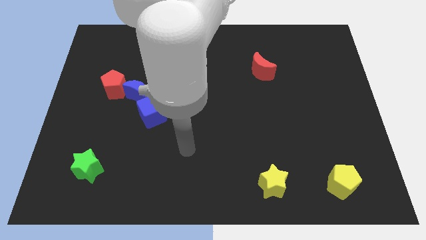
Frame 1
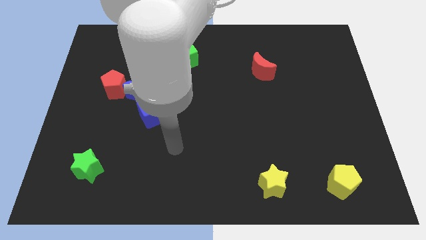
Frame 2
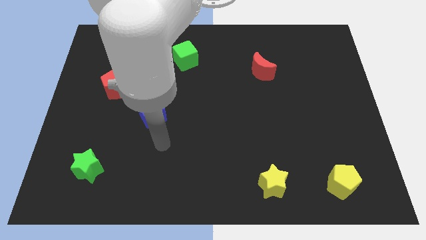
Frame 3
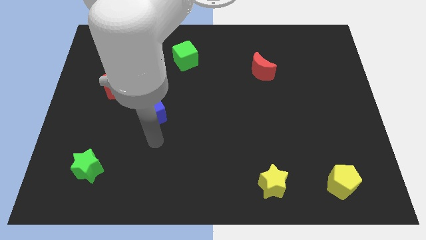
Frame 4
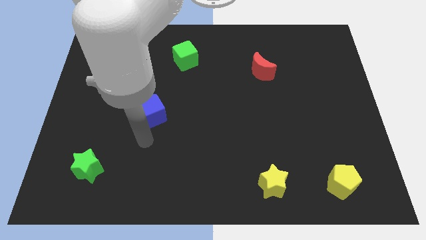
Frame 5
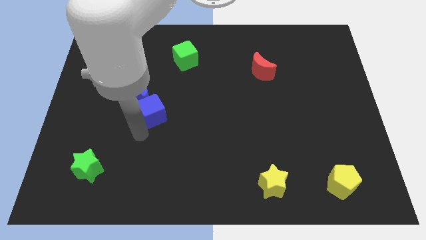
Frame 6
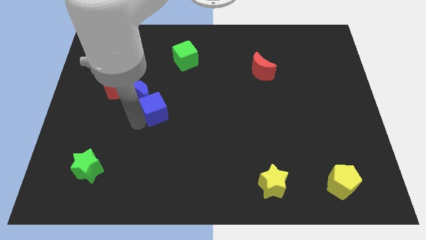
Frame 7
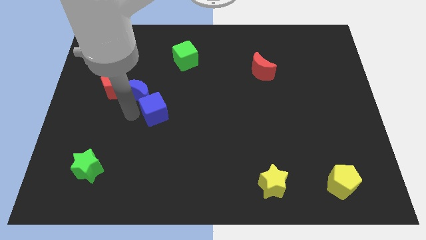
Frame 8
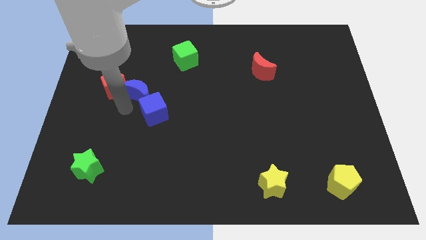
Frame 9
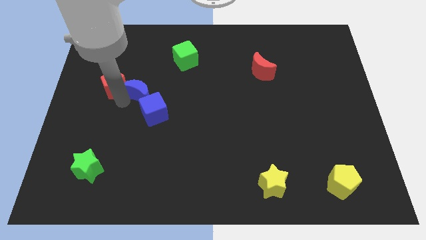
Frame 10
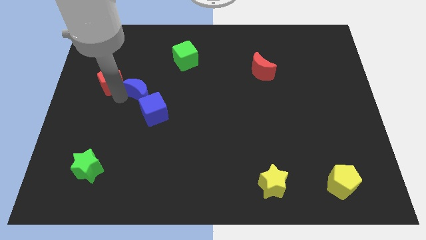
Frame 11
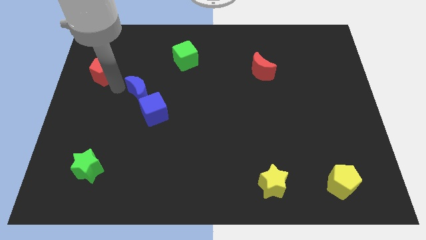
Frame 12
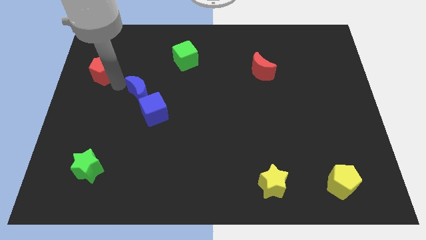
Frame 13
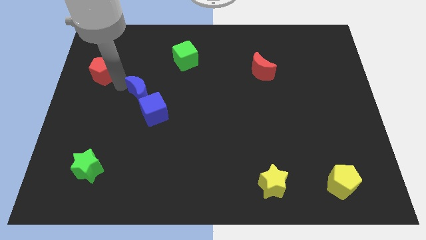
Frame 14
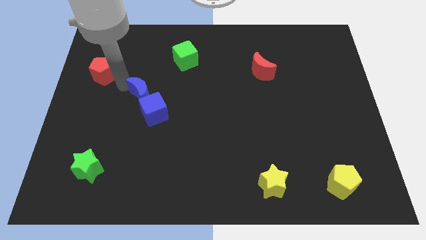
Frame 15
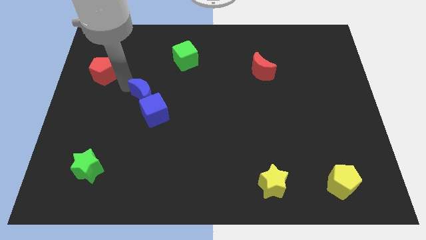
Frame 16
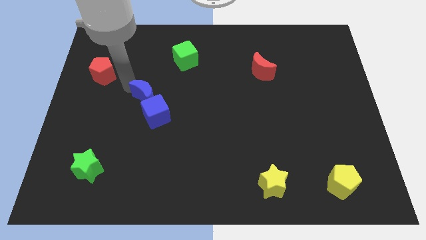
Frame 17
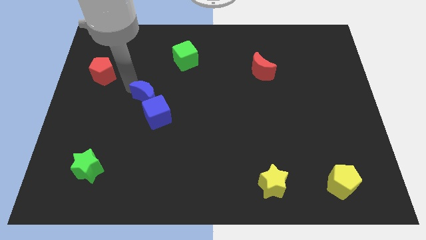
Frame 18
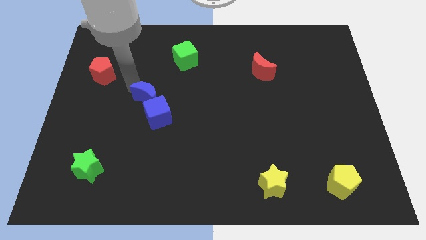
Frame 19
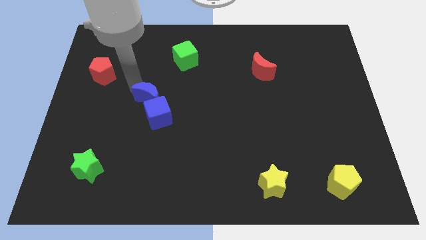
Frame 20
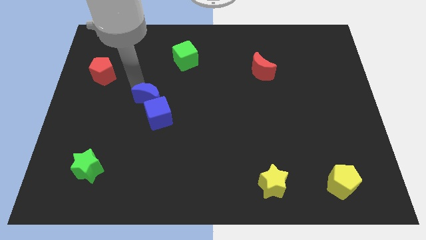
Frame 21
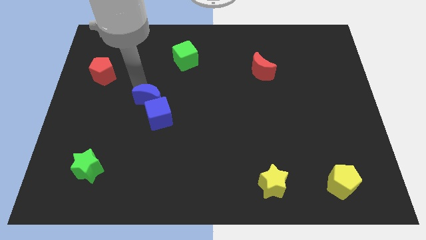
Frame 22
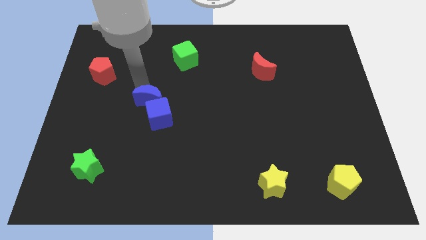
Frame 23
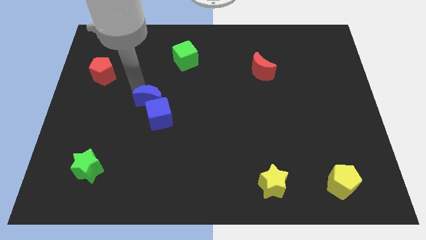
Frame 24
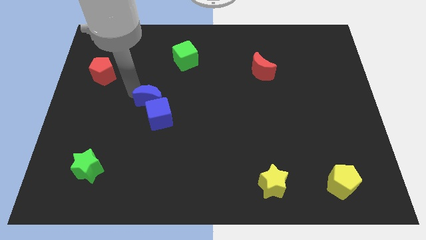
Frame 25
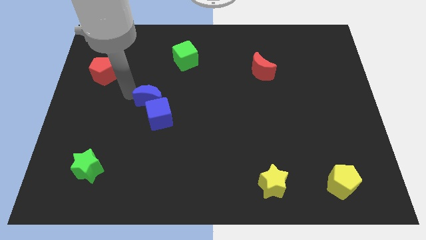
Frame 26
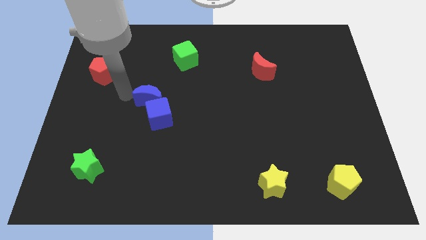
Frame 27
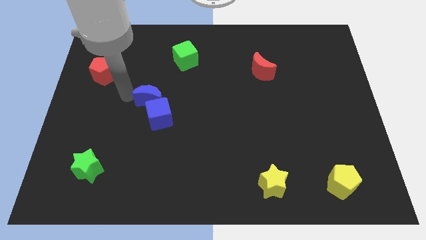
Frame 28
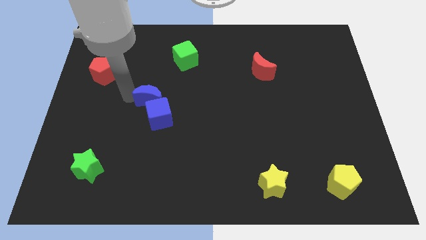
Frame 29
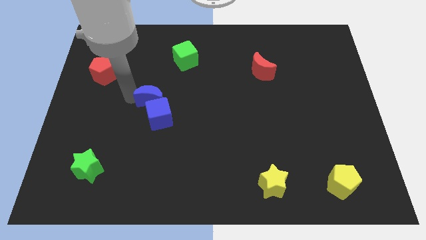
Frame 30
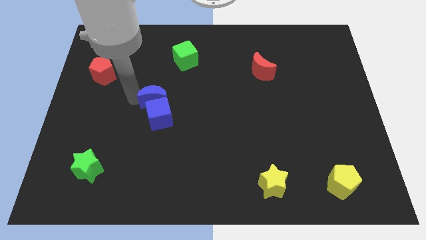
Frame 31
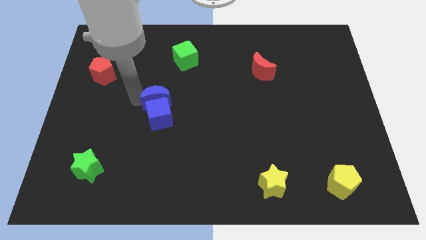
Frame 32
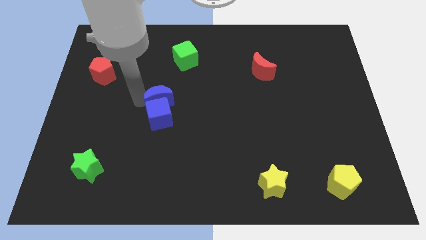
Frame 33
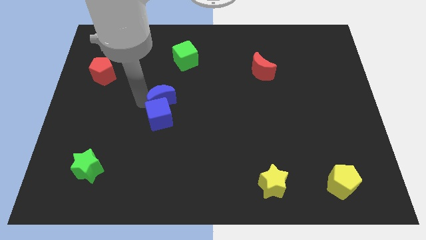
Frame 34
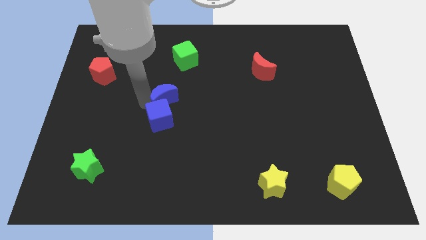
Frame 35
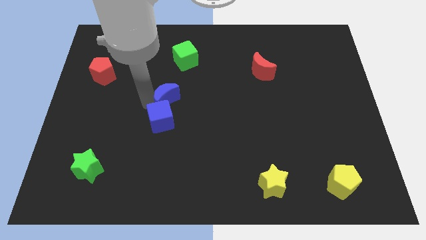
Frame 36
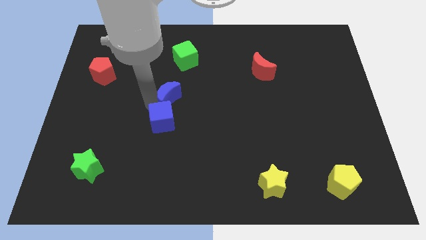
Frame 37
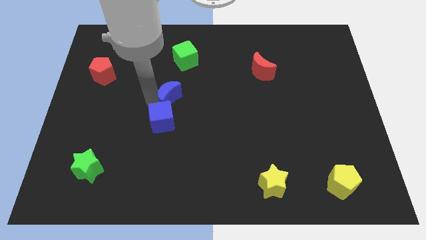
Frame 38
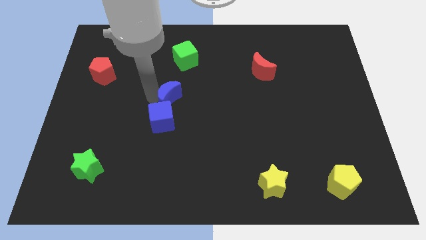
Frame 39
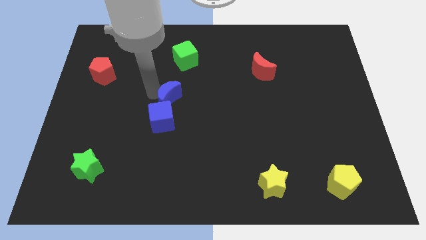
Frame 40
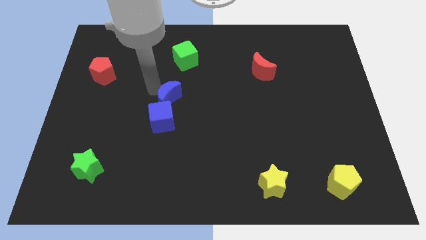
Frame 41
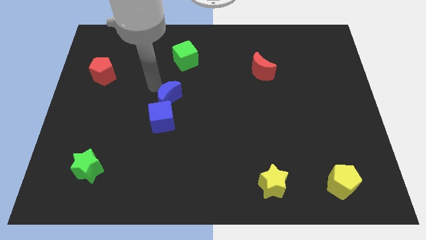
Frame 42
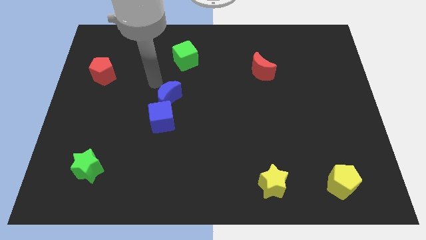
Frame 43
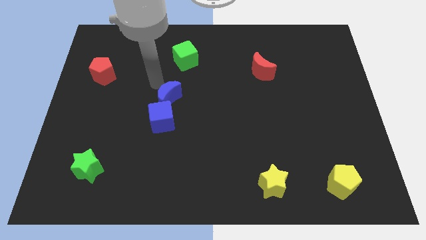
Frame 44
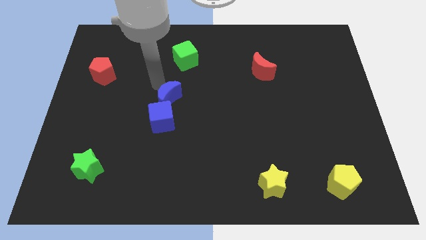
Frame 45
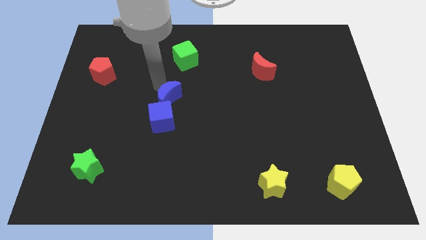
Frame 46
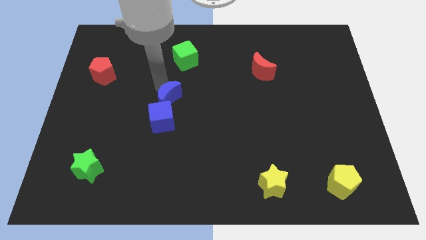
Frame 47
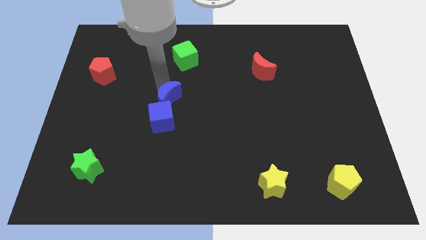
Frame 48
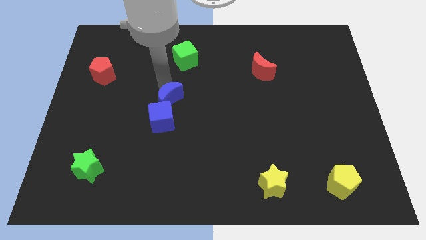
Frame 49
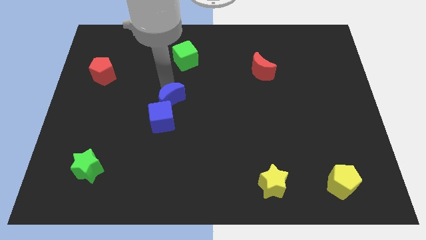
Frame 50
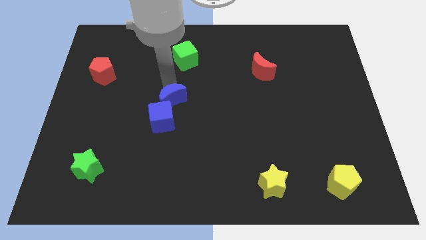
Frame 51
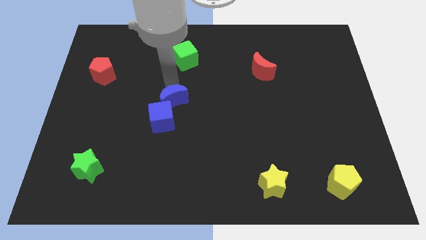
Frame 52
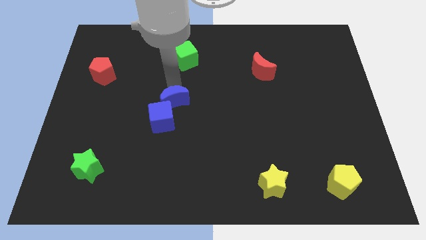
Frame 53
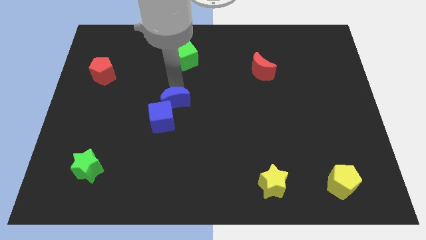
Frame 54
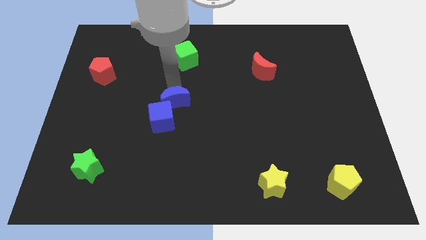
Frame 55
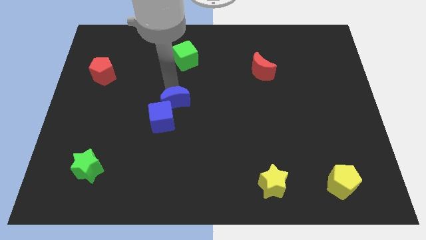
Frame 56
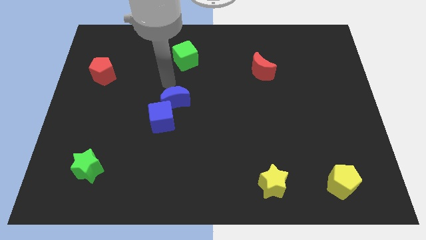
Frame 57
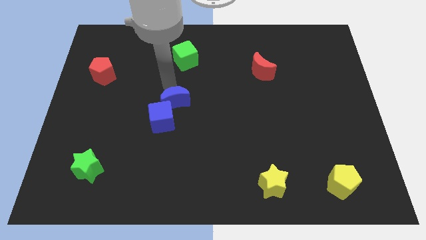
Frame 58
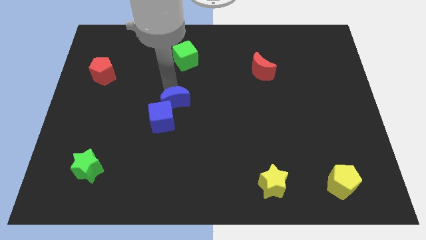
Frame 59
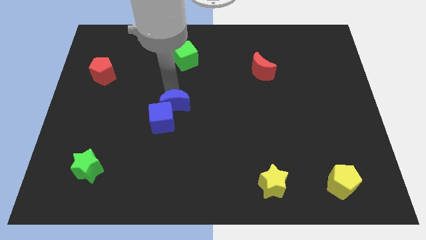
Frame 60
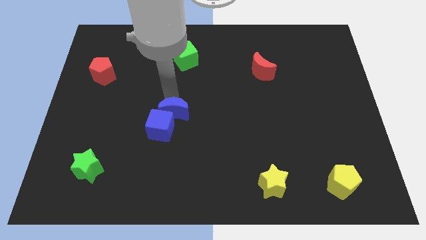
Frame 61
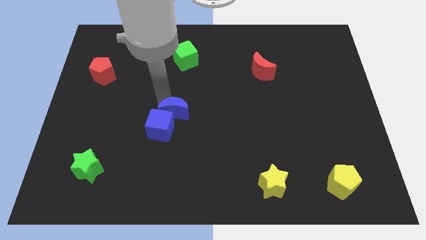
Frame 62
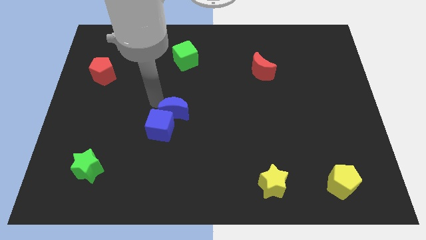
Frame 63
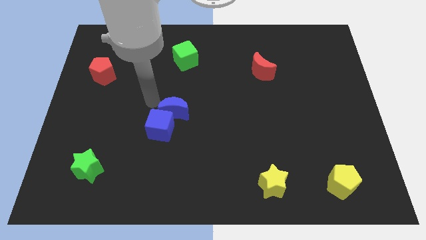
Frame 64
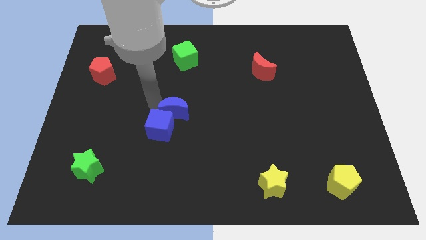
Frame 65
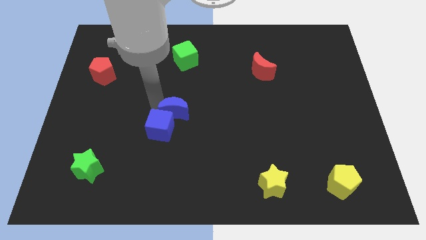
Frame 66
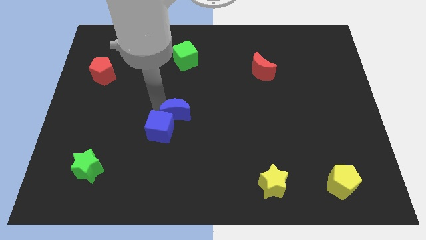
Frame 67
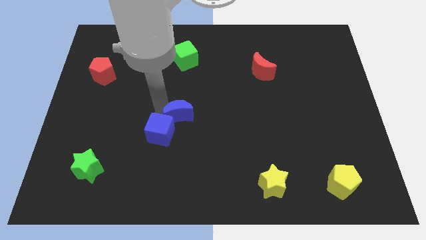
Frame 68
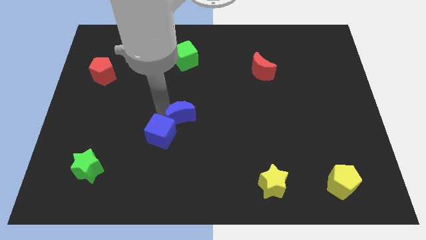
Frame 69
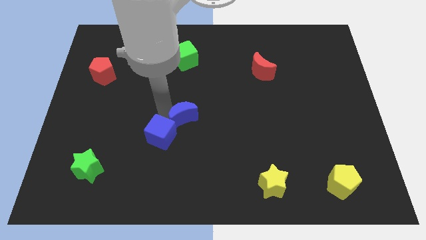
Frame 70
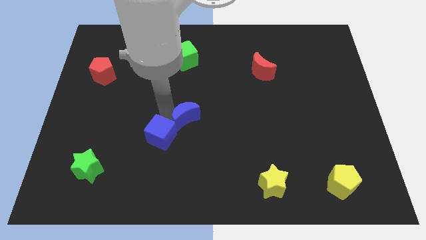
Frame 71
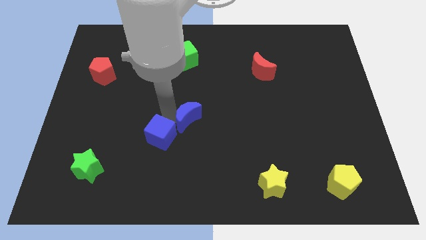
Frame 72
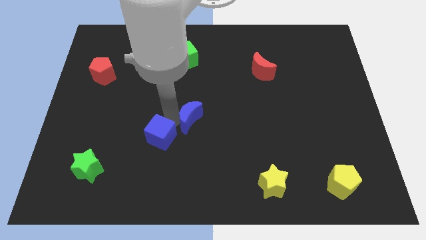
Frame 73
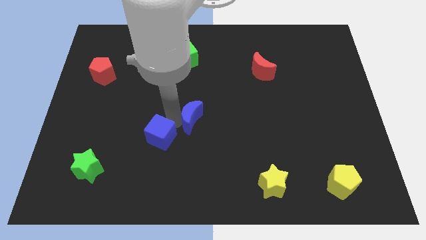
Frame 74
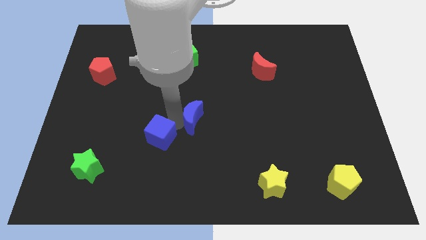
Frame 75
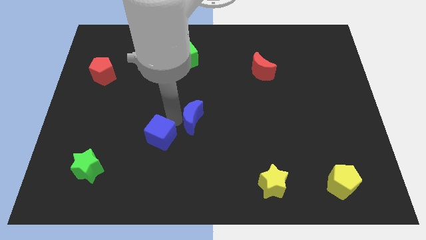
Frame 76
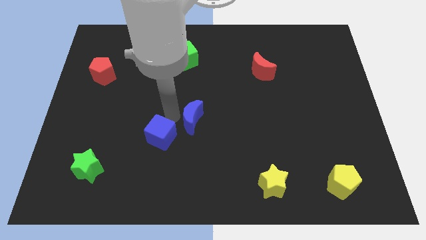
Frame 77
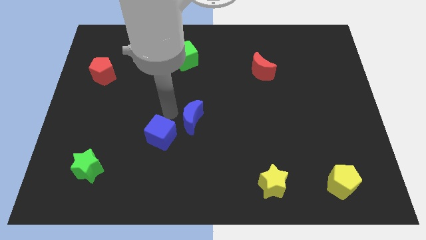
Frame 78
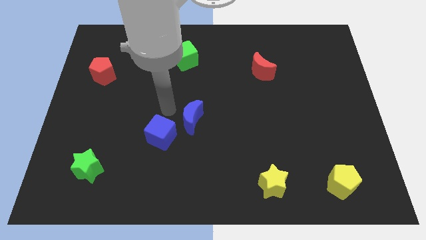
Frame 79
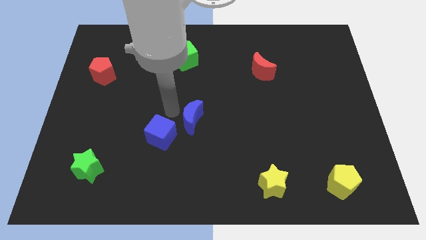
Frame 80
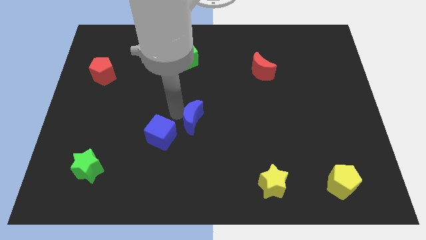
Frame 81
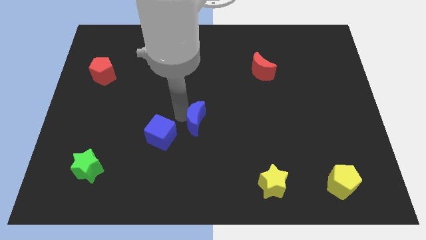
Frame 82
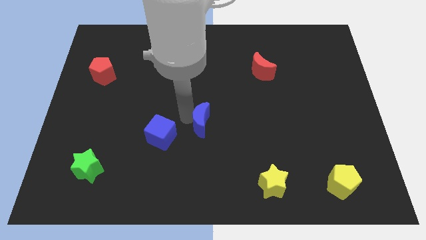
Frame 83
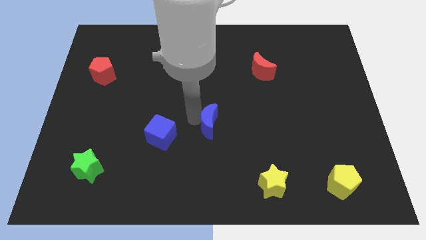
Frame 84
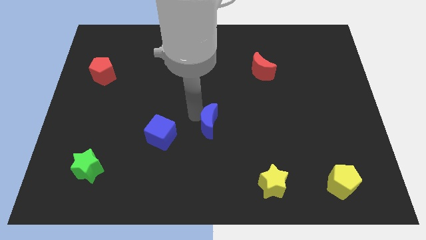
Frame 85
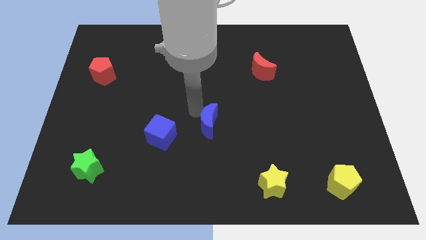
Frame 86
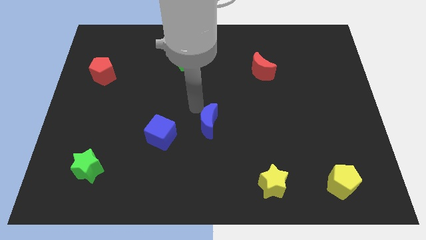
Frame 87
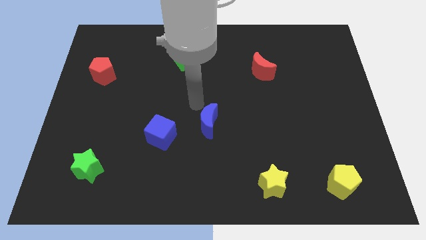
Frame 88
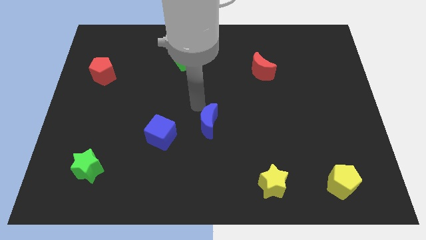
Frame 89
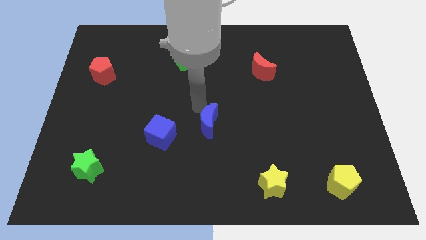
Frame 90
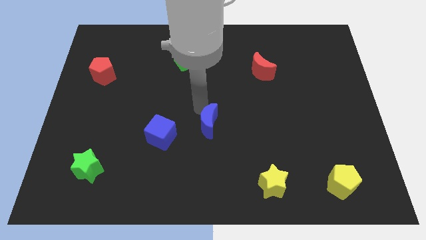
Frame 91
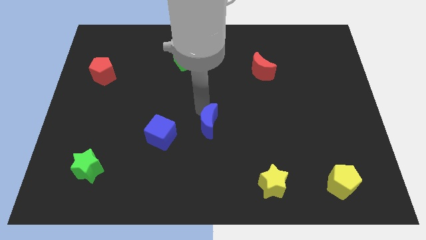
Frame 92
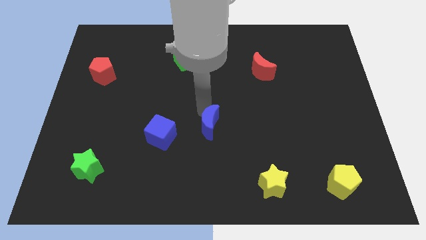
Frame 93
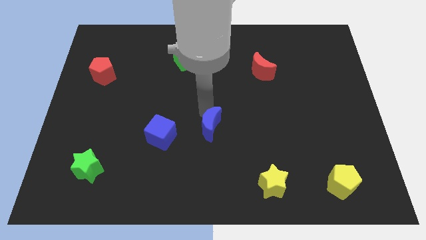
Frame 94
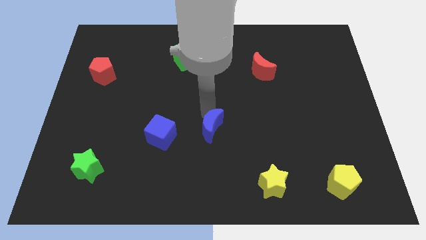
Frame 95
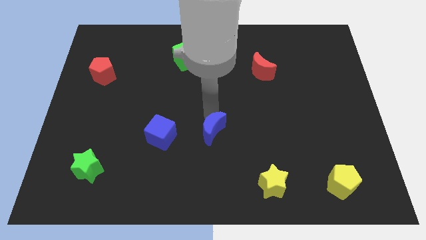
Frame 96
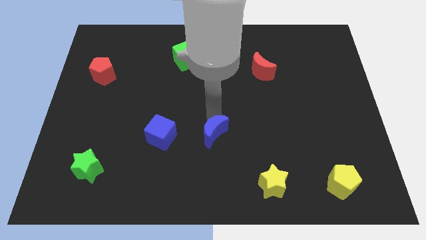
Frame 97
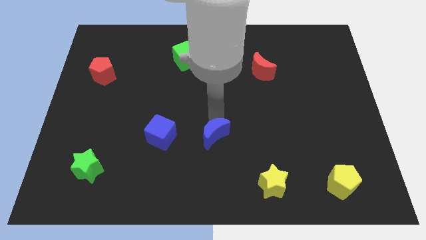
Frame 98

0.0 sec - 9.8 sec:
slide the blue moon down and to the right
